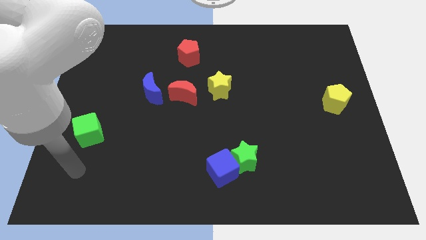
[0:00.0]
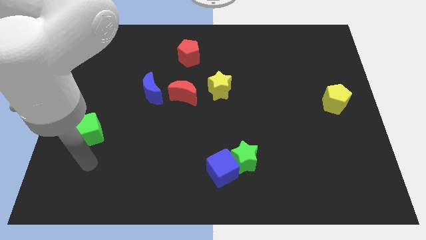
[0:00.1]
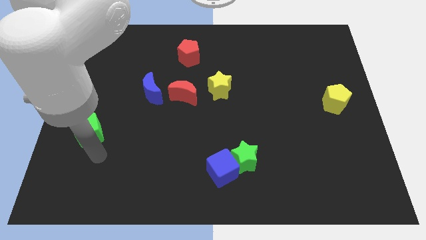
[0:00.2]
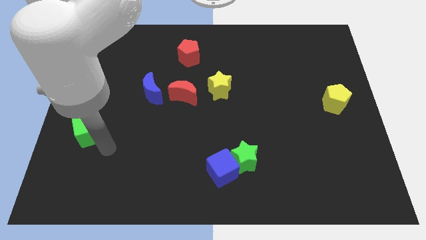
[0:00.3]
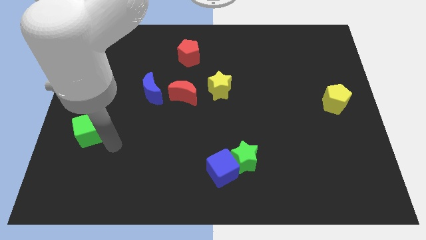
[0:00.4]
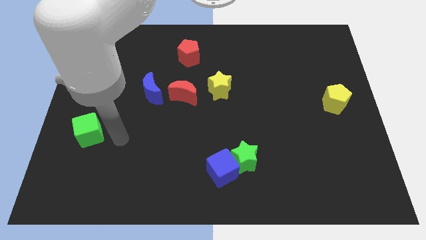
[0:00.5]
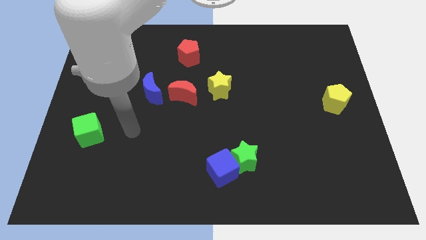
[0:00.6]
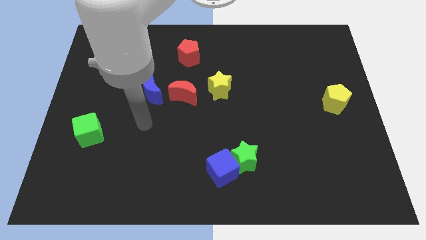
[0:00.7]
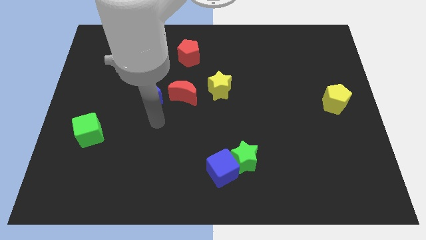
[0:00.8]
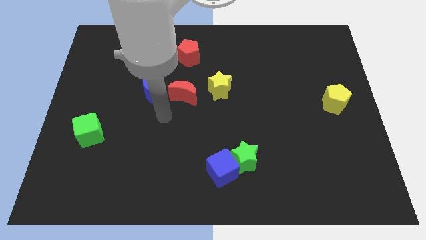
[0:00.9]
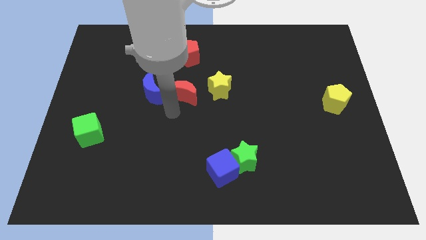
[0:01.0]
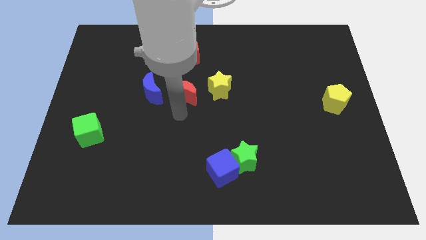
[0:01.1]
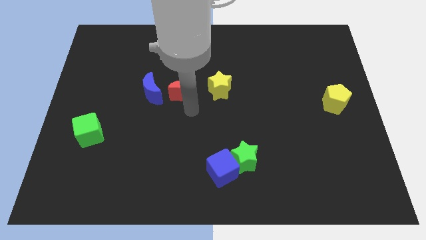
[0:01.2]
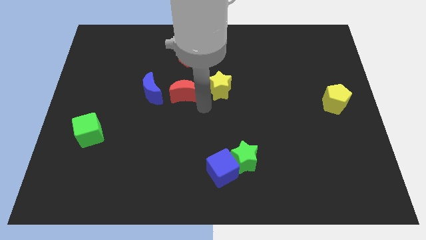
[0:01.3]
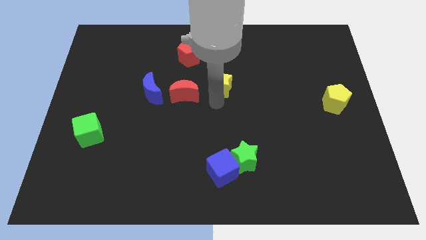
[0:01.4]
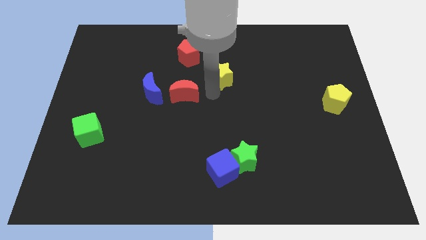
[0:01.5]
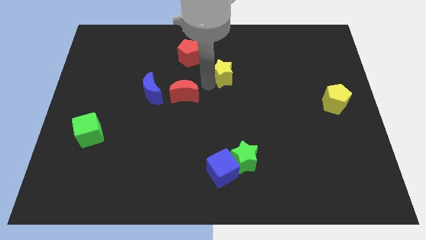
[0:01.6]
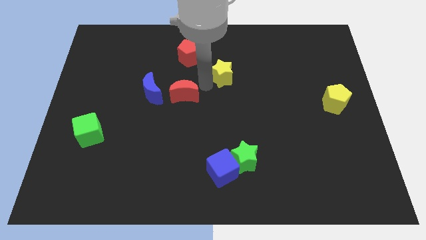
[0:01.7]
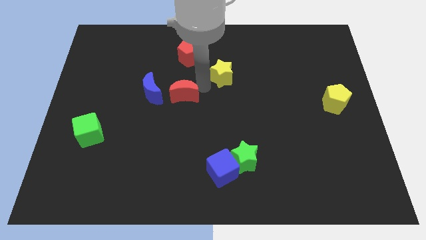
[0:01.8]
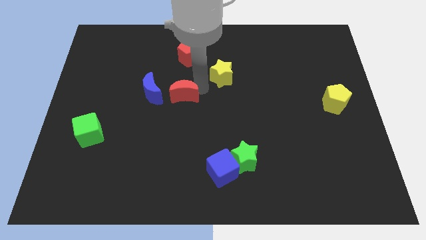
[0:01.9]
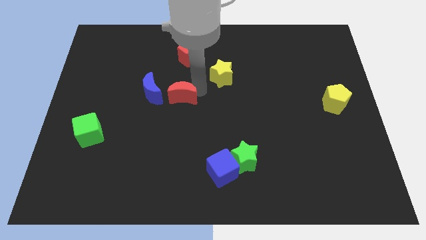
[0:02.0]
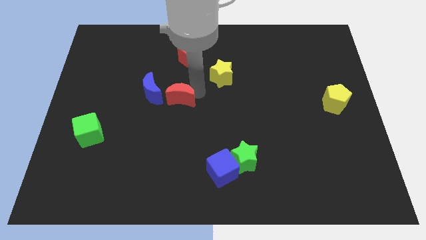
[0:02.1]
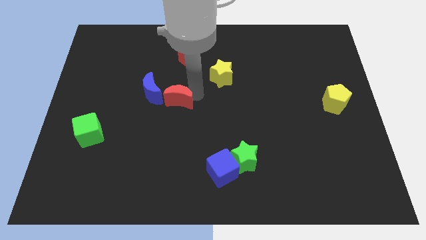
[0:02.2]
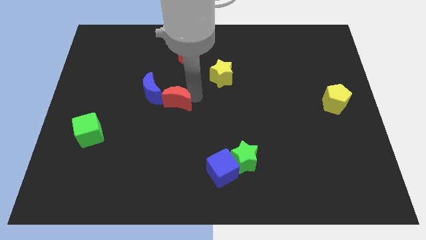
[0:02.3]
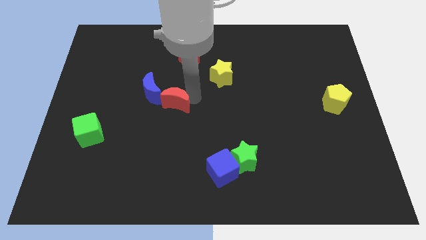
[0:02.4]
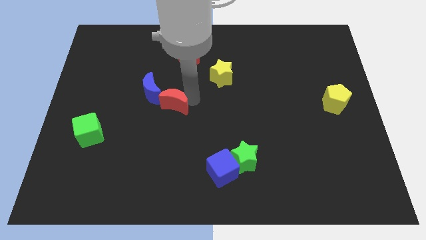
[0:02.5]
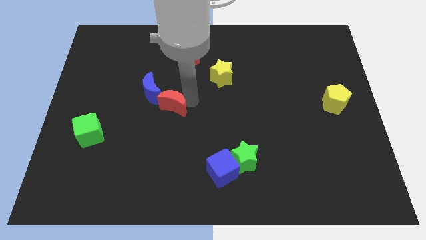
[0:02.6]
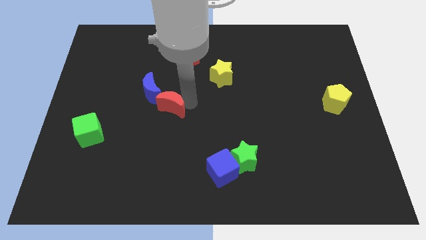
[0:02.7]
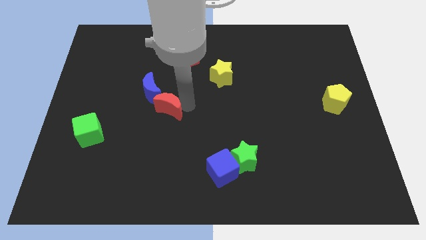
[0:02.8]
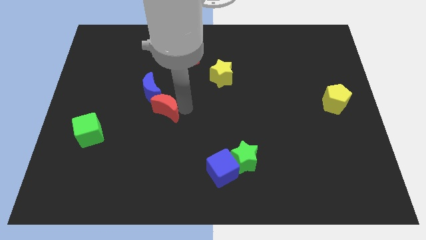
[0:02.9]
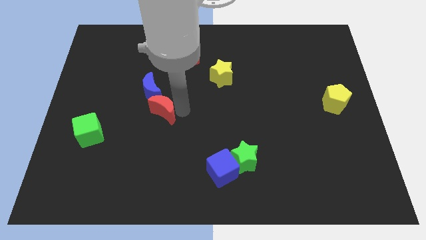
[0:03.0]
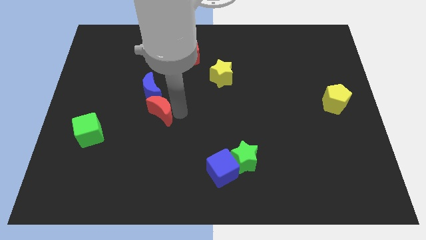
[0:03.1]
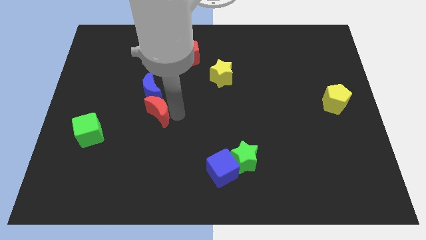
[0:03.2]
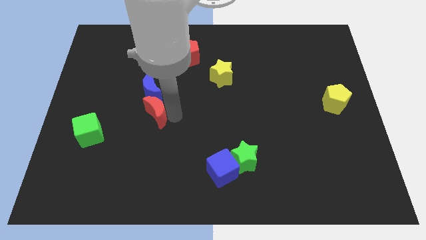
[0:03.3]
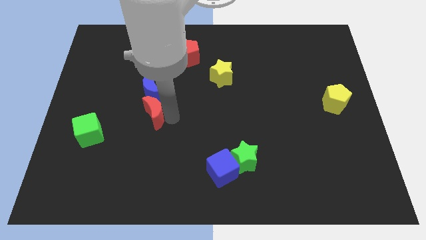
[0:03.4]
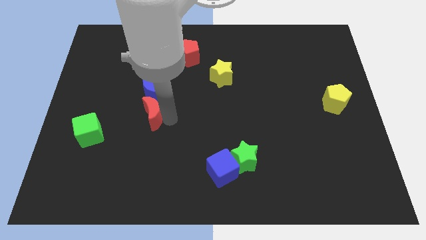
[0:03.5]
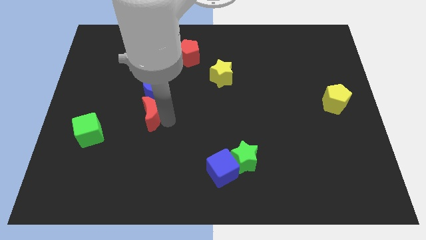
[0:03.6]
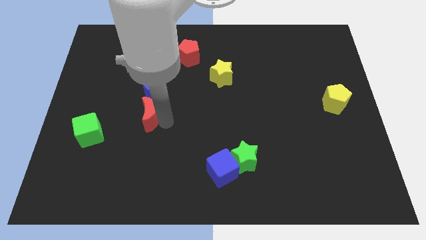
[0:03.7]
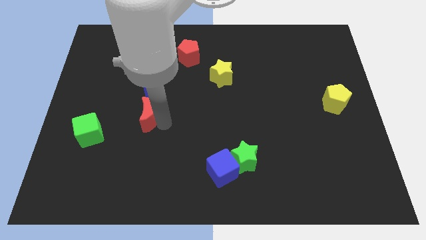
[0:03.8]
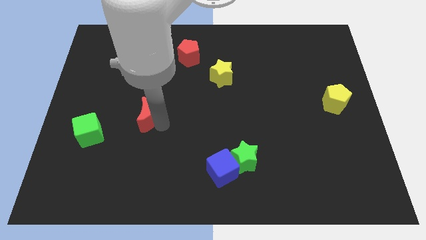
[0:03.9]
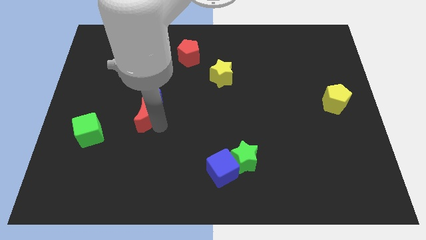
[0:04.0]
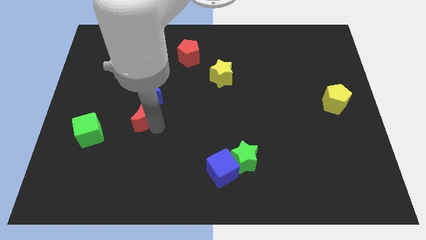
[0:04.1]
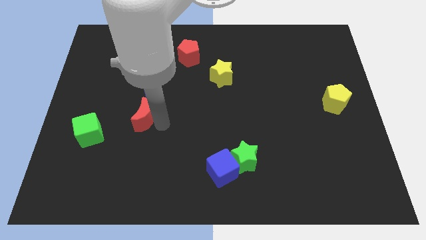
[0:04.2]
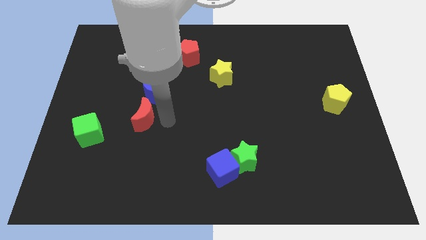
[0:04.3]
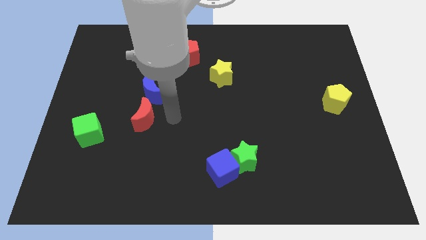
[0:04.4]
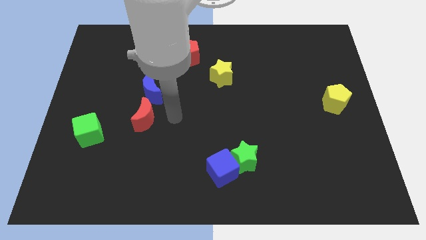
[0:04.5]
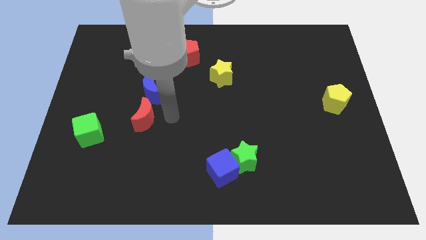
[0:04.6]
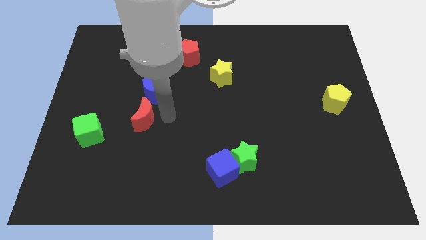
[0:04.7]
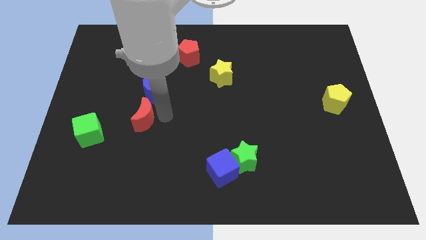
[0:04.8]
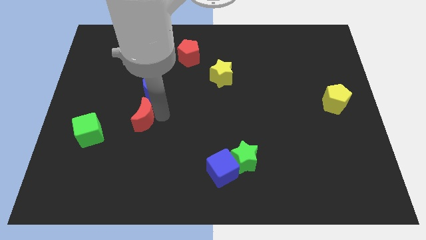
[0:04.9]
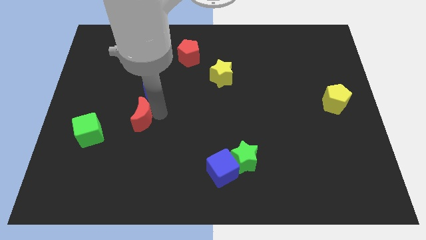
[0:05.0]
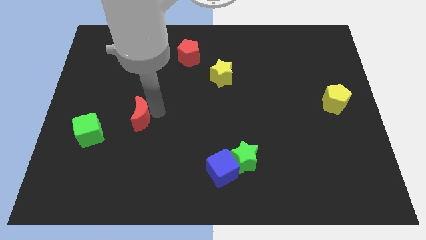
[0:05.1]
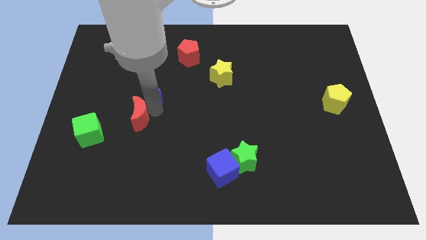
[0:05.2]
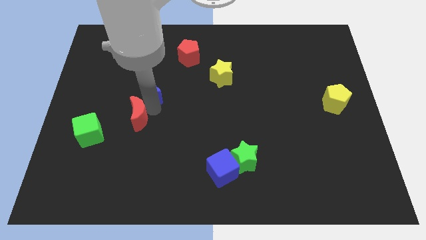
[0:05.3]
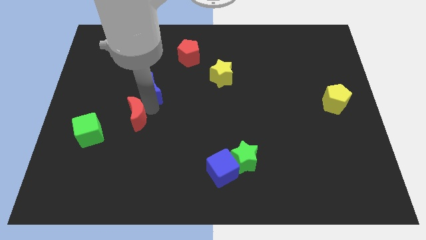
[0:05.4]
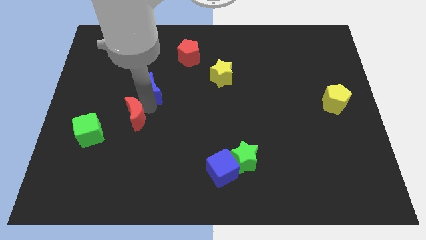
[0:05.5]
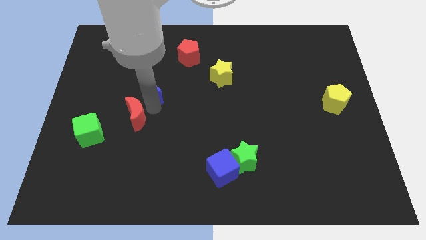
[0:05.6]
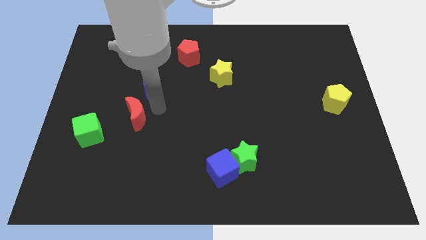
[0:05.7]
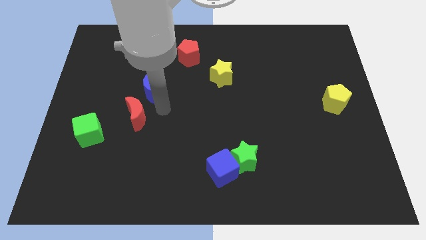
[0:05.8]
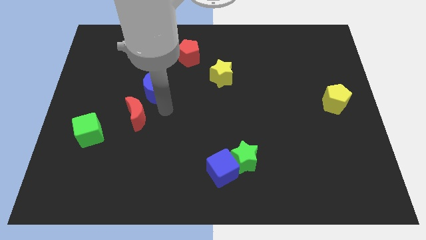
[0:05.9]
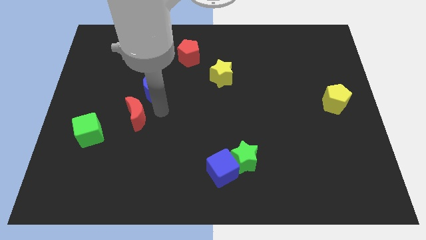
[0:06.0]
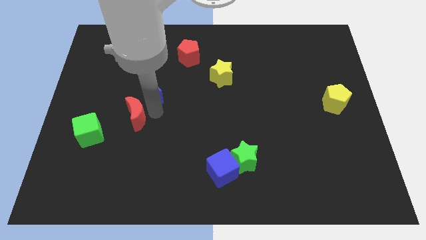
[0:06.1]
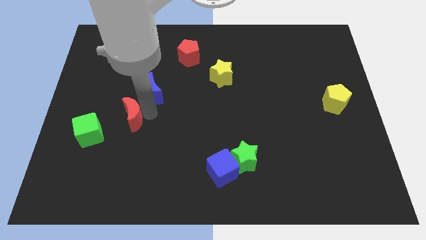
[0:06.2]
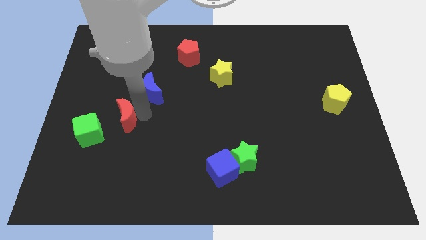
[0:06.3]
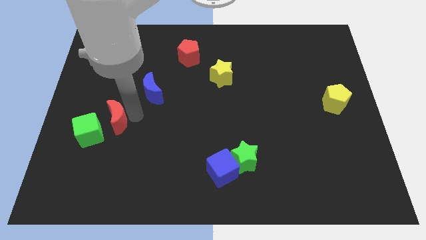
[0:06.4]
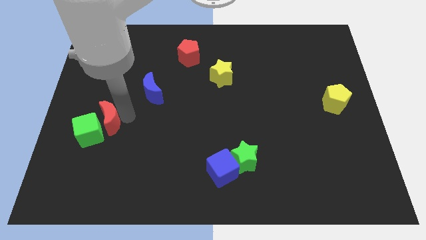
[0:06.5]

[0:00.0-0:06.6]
put the red moon close to the green cube

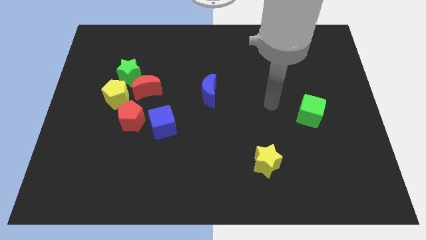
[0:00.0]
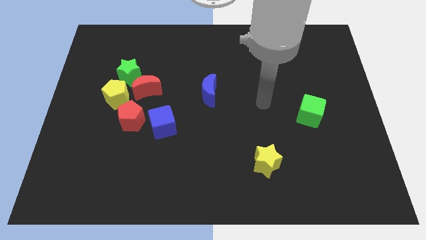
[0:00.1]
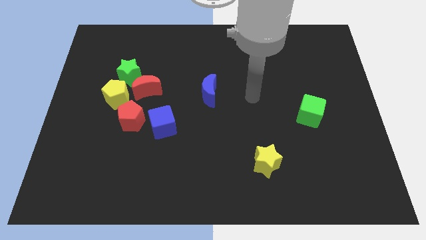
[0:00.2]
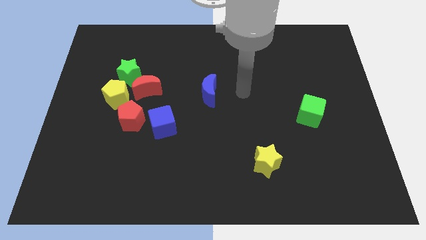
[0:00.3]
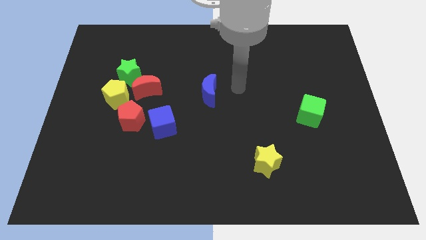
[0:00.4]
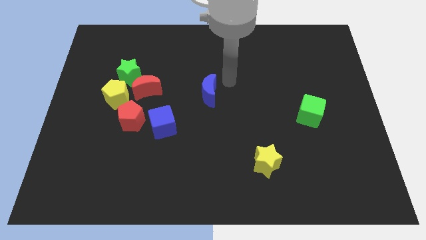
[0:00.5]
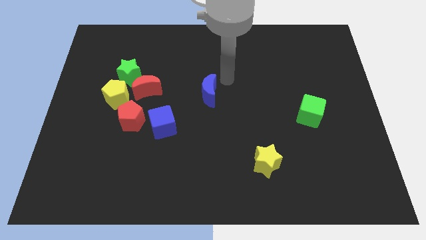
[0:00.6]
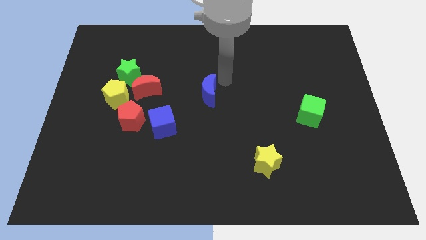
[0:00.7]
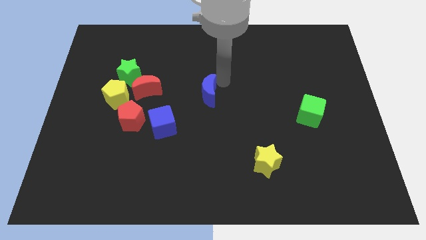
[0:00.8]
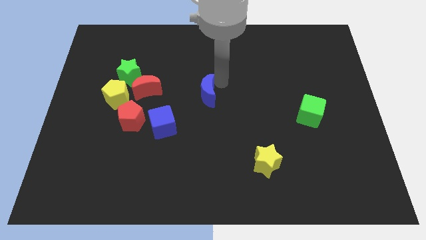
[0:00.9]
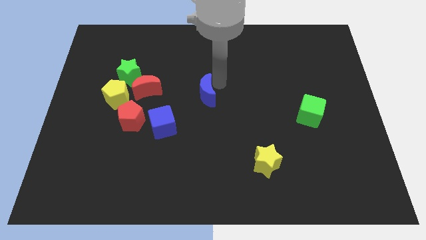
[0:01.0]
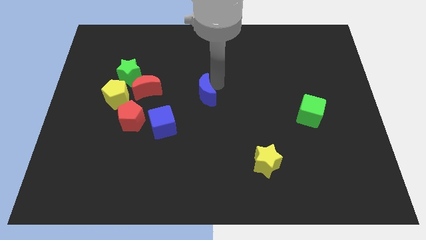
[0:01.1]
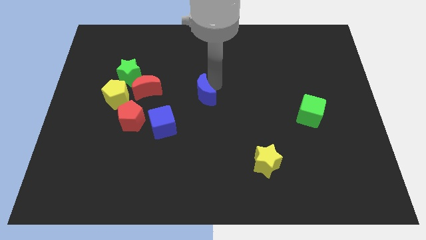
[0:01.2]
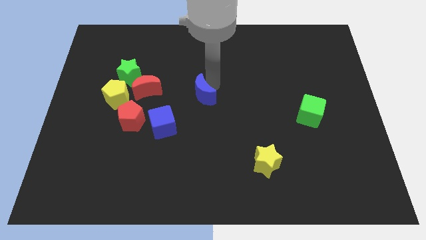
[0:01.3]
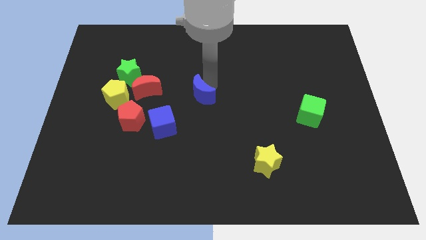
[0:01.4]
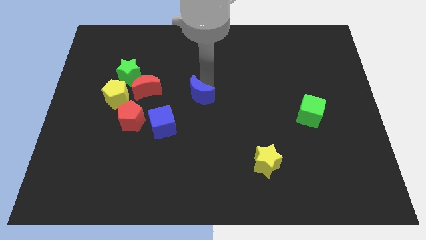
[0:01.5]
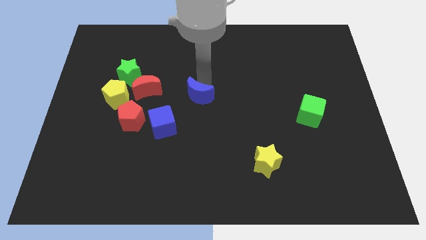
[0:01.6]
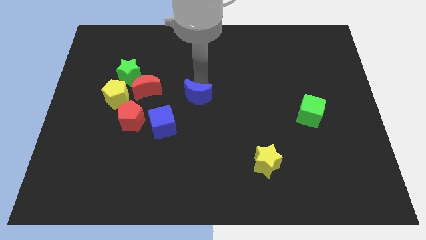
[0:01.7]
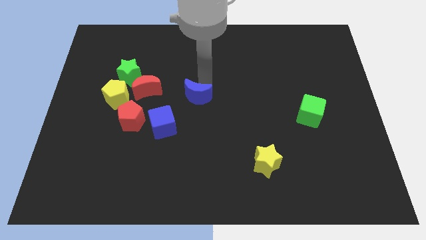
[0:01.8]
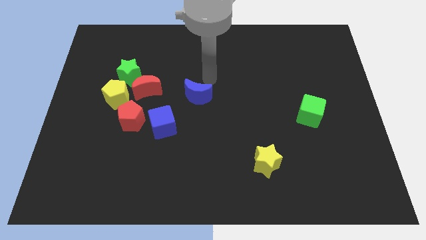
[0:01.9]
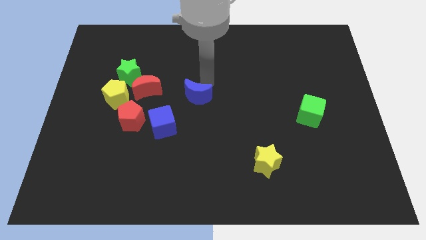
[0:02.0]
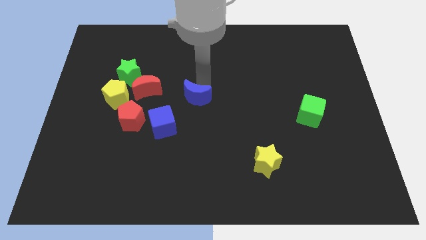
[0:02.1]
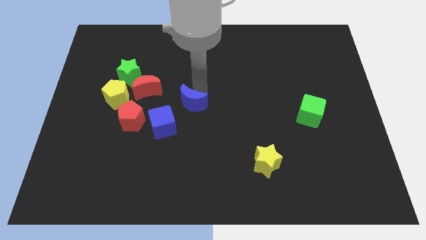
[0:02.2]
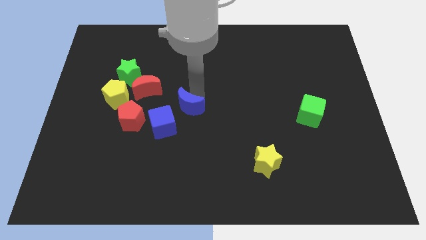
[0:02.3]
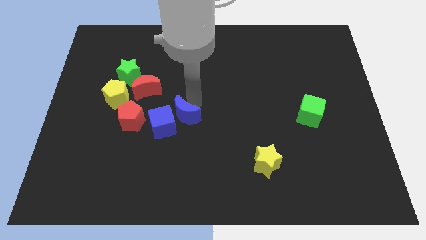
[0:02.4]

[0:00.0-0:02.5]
slide the blue moon next to the blue cube
